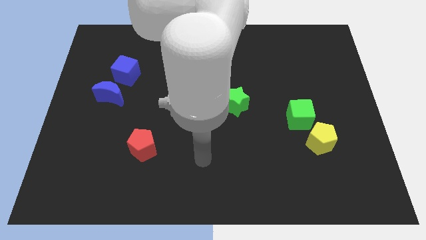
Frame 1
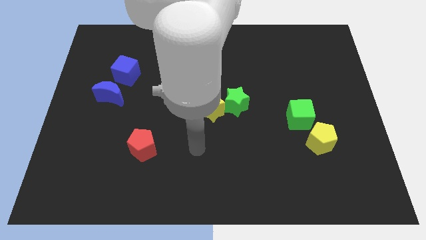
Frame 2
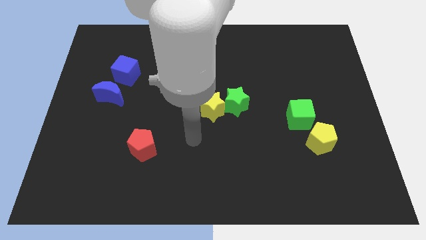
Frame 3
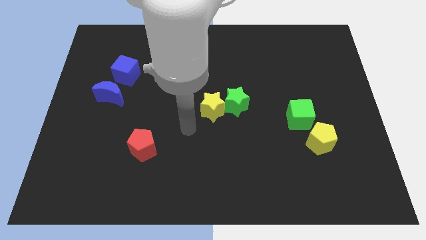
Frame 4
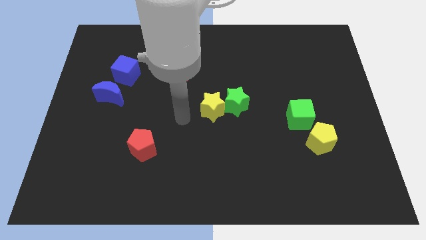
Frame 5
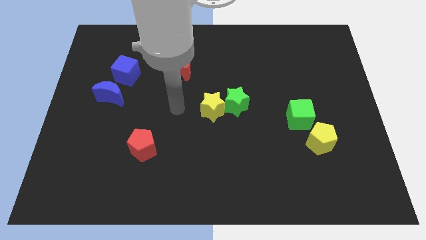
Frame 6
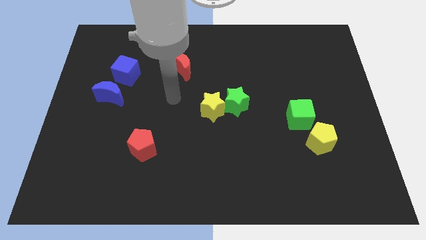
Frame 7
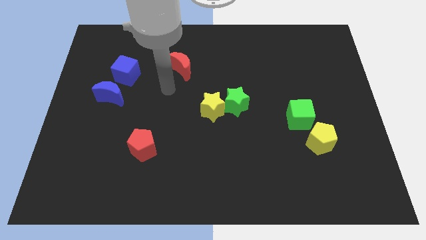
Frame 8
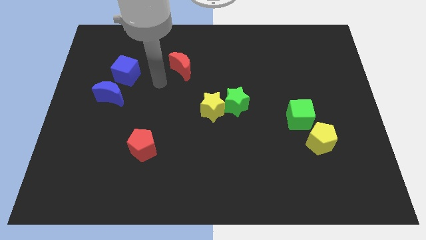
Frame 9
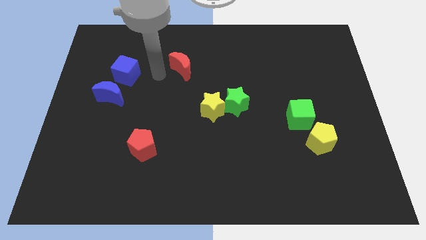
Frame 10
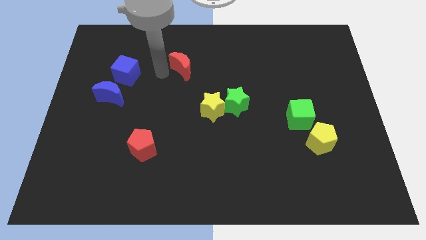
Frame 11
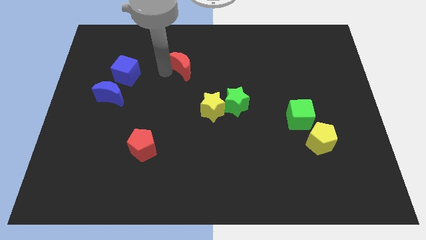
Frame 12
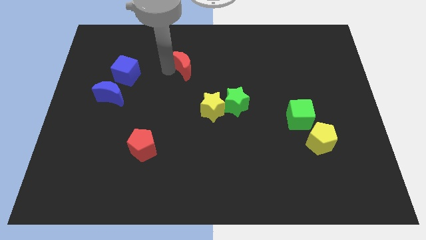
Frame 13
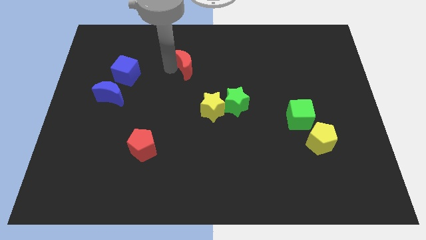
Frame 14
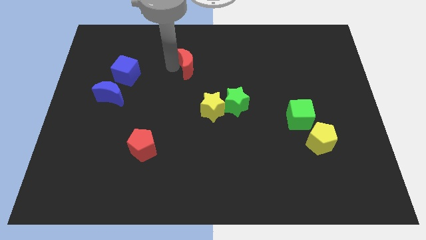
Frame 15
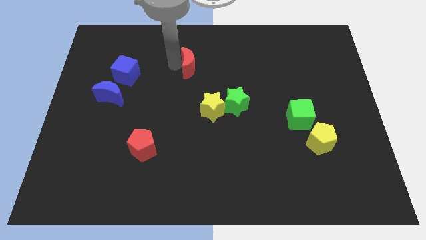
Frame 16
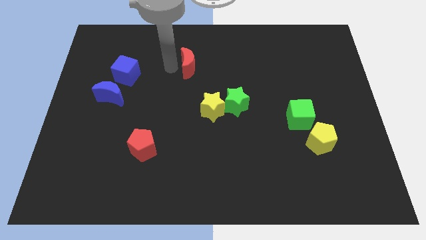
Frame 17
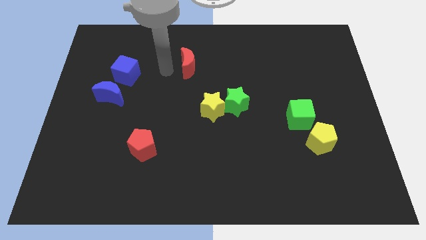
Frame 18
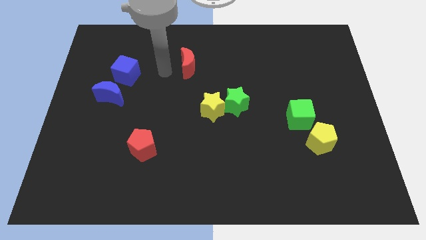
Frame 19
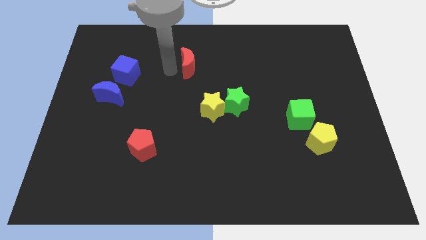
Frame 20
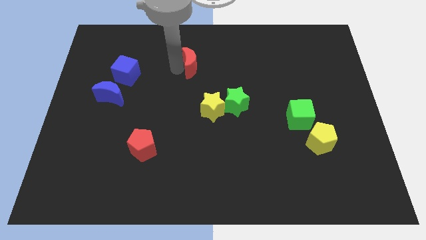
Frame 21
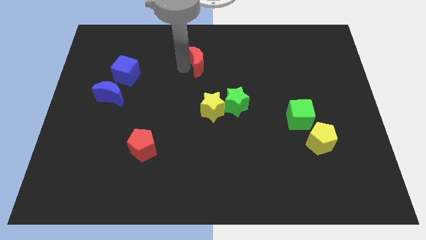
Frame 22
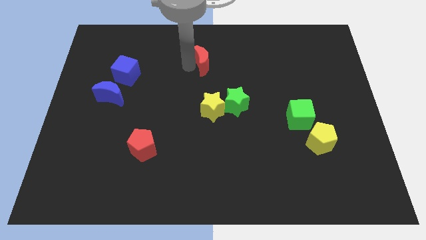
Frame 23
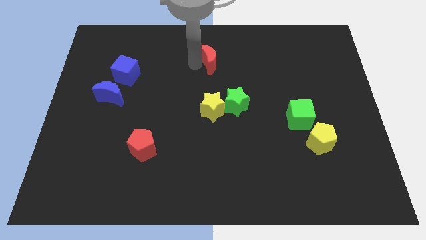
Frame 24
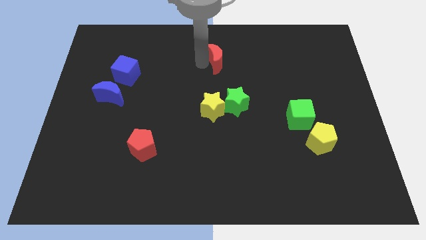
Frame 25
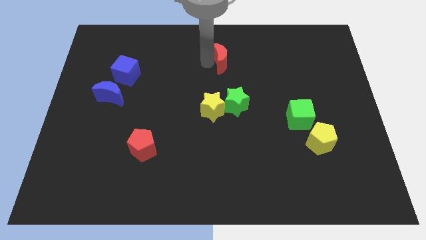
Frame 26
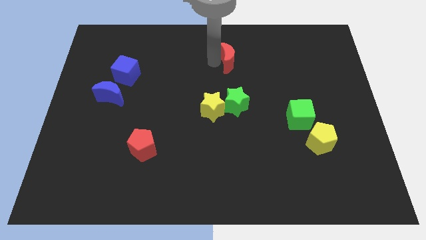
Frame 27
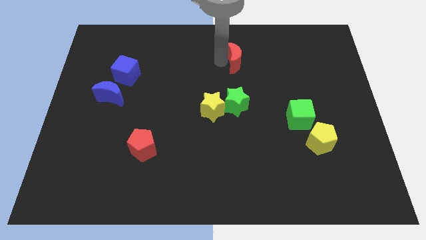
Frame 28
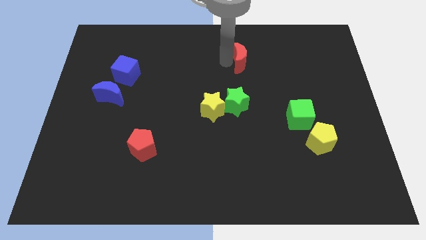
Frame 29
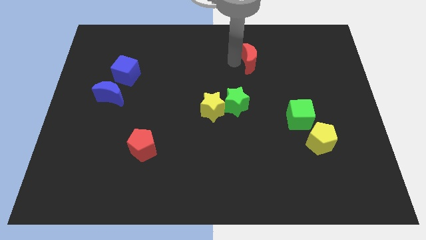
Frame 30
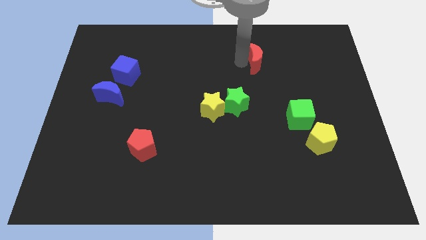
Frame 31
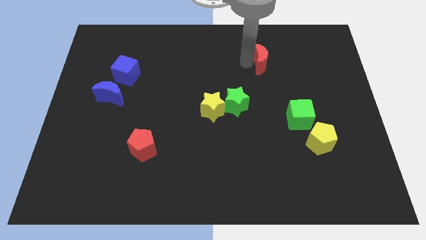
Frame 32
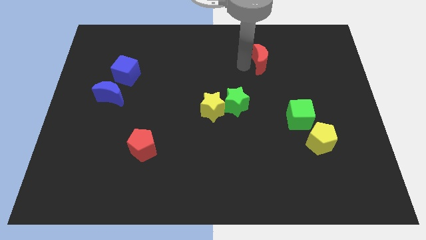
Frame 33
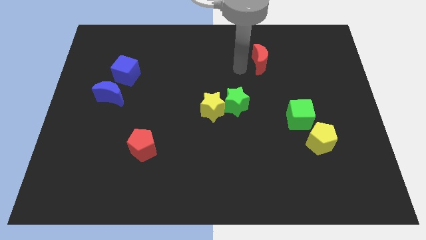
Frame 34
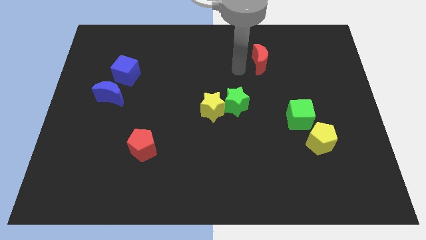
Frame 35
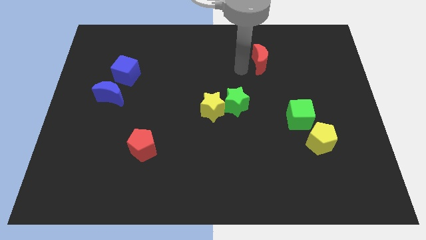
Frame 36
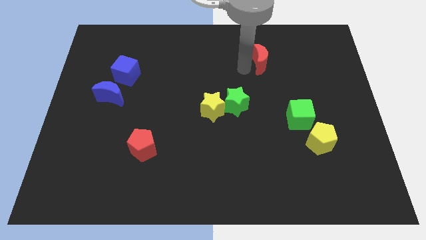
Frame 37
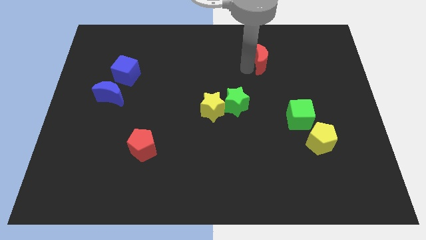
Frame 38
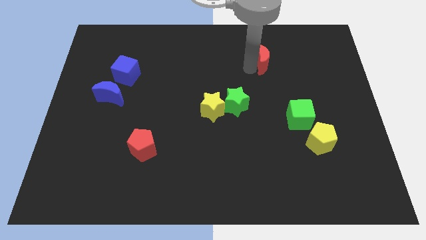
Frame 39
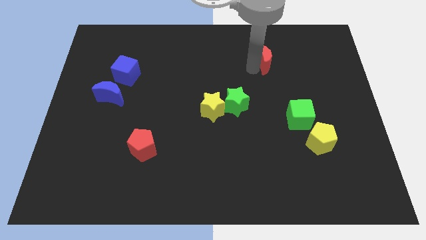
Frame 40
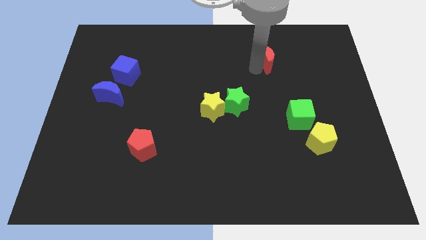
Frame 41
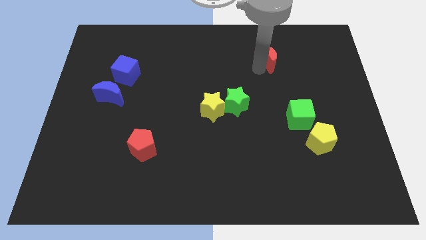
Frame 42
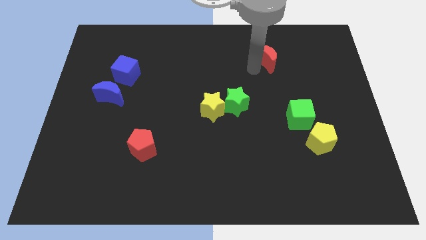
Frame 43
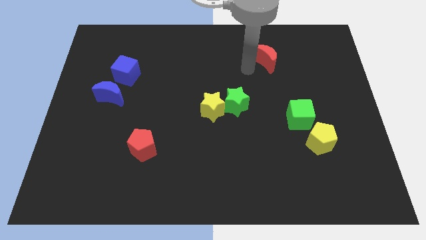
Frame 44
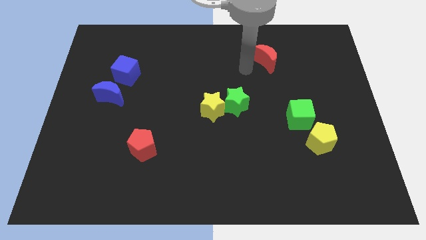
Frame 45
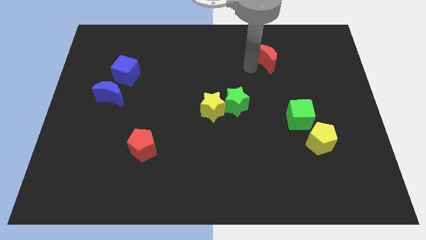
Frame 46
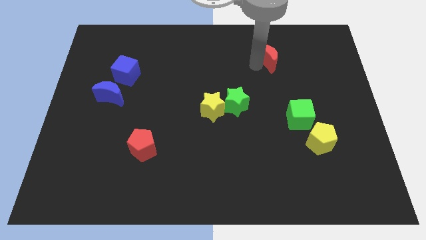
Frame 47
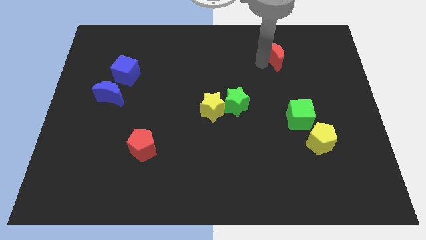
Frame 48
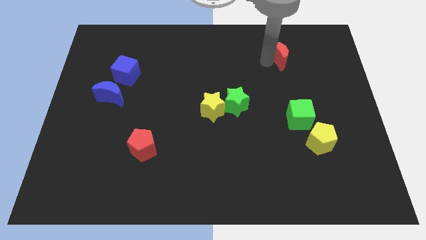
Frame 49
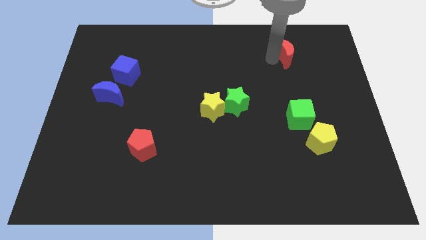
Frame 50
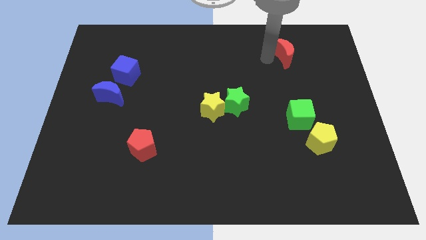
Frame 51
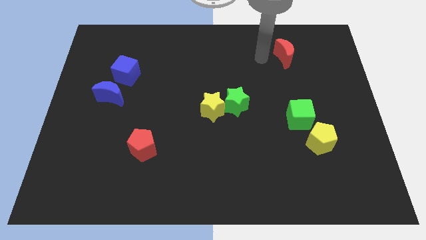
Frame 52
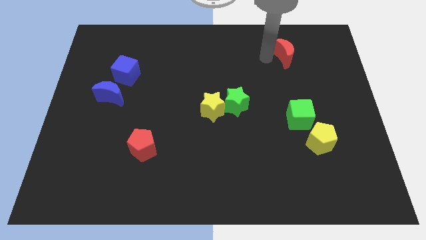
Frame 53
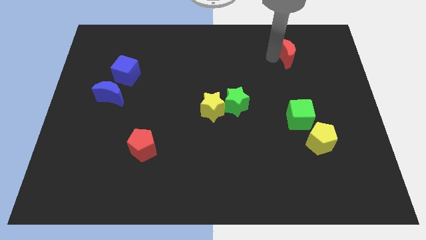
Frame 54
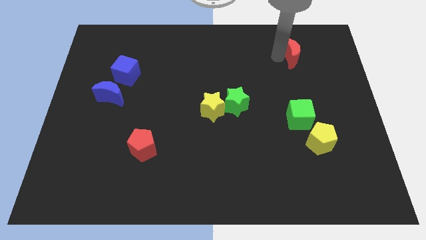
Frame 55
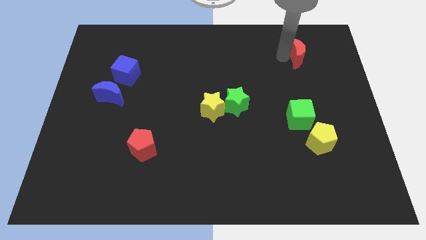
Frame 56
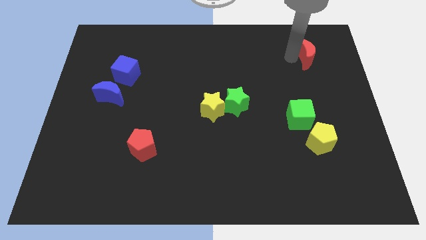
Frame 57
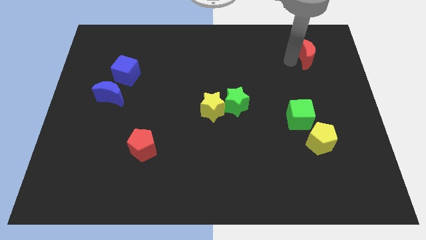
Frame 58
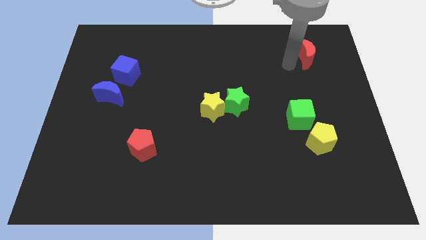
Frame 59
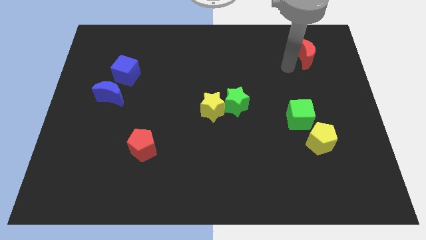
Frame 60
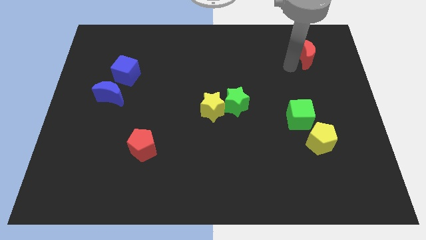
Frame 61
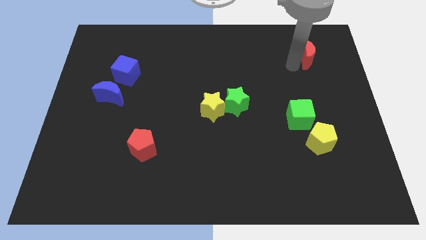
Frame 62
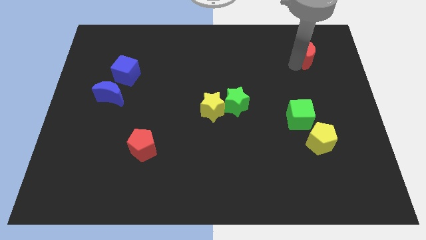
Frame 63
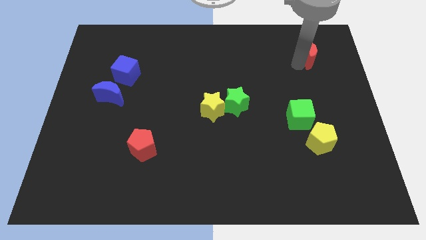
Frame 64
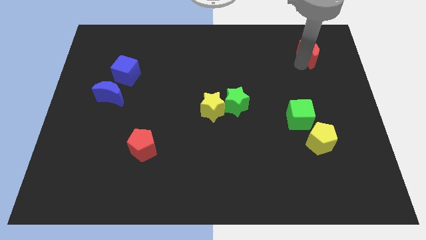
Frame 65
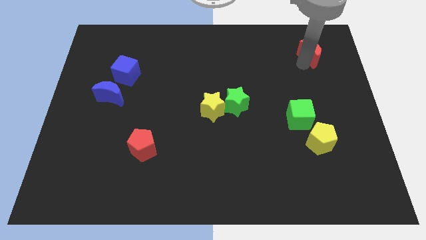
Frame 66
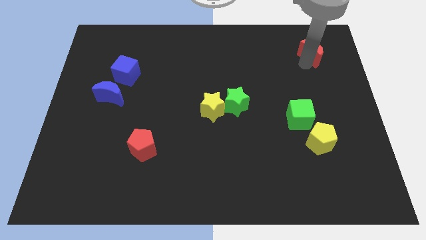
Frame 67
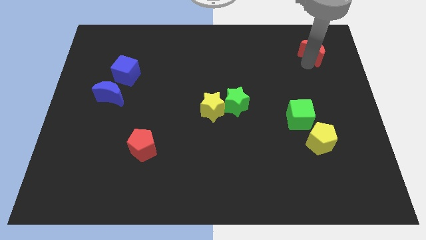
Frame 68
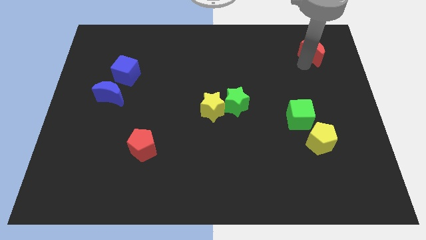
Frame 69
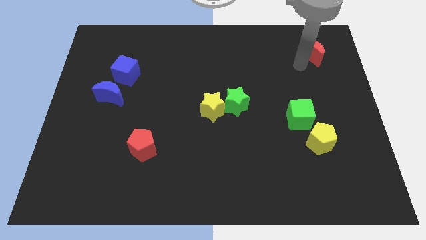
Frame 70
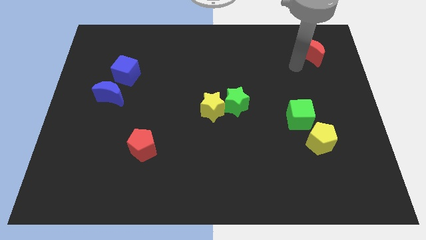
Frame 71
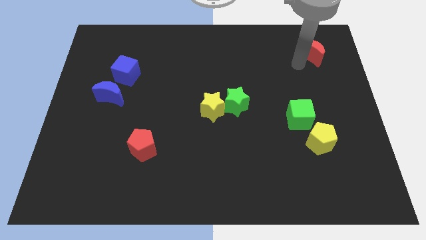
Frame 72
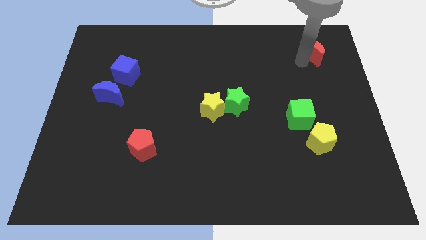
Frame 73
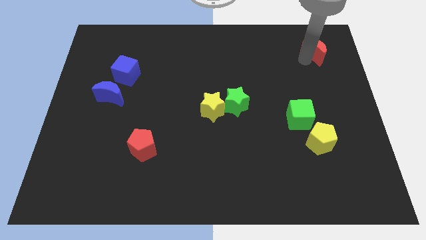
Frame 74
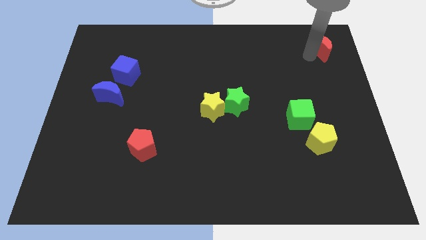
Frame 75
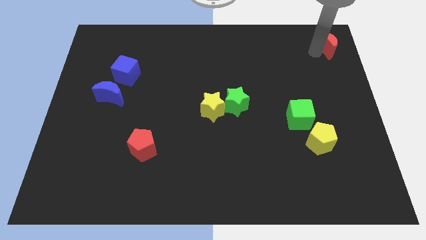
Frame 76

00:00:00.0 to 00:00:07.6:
put the red moon to the top right corner
